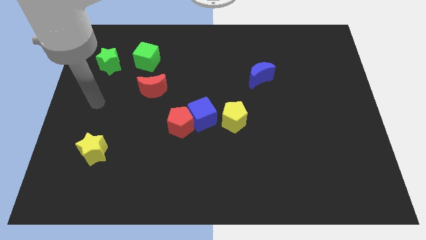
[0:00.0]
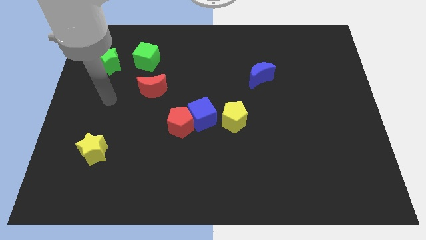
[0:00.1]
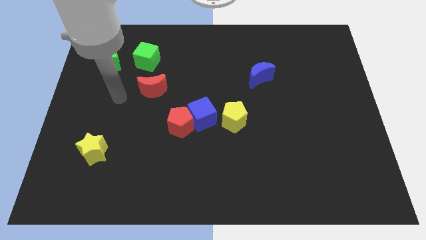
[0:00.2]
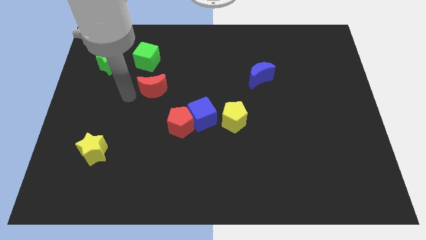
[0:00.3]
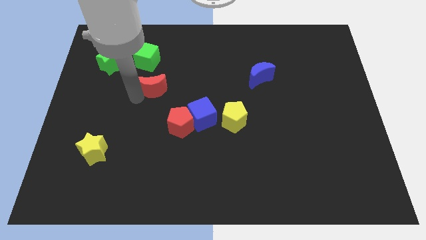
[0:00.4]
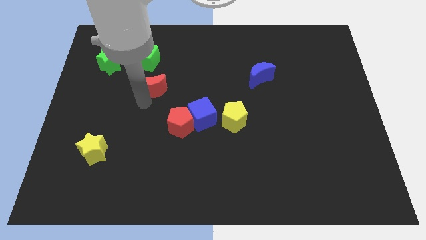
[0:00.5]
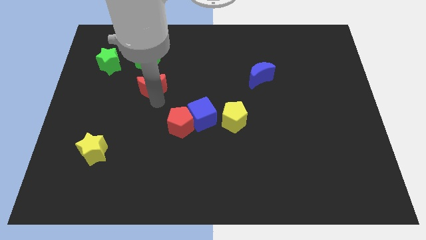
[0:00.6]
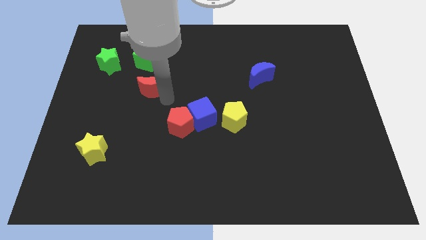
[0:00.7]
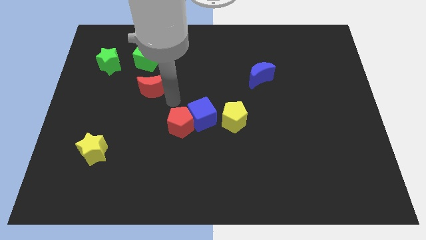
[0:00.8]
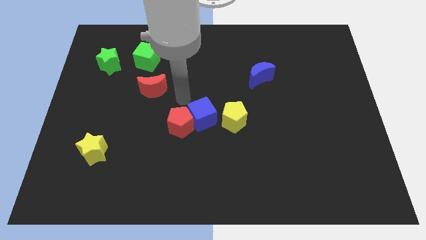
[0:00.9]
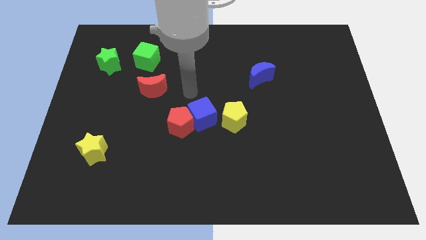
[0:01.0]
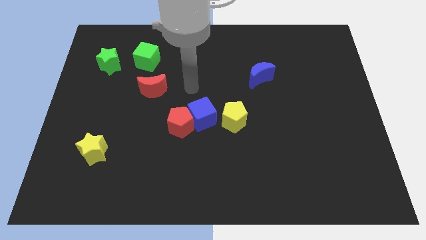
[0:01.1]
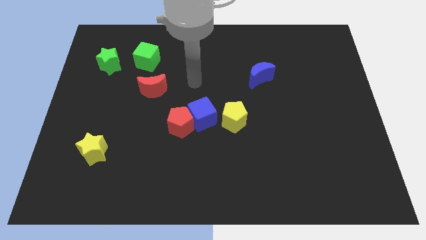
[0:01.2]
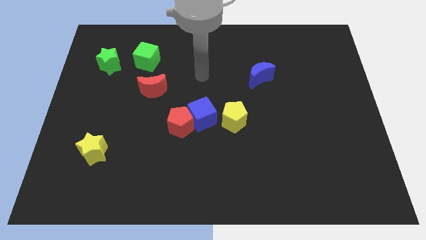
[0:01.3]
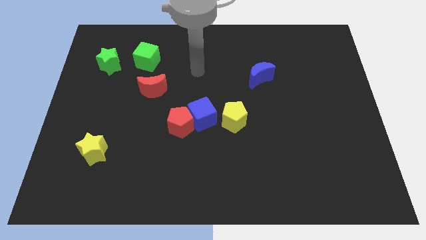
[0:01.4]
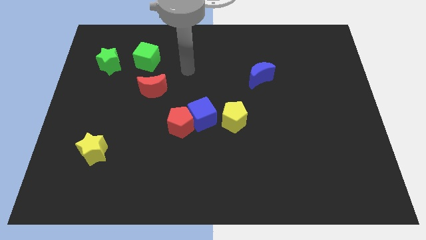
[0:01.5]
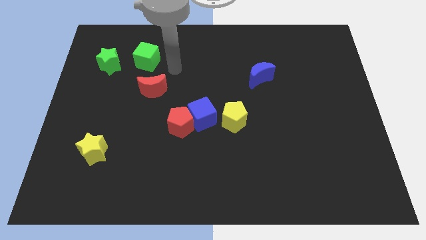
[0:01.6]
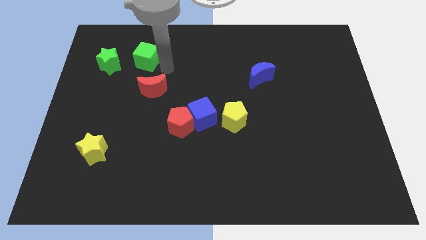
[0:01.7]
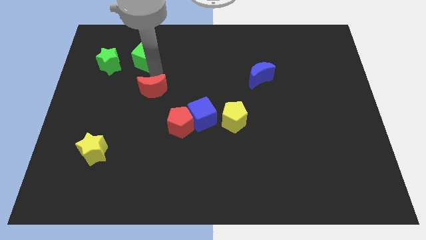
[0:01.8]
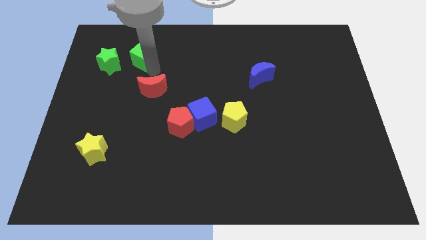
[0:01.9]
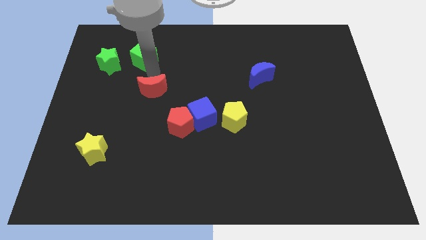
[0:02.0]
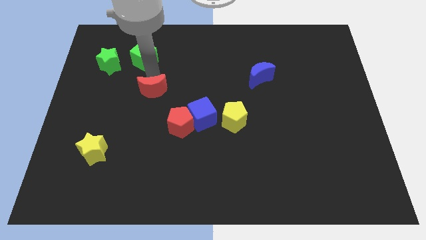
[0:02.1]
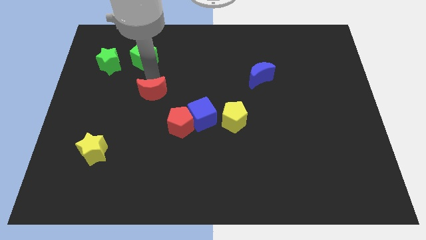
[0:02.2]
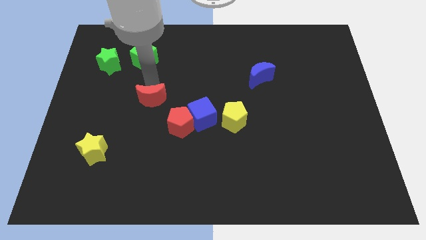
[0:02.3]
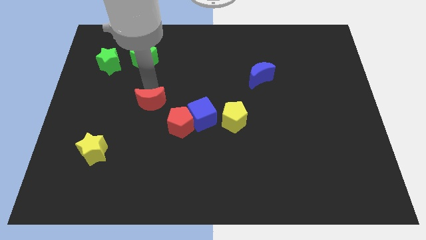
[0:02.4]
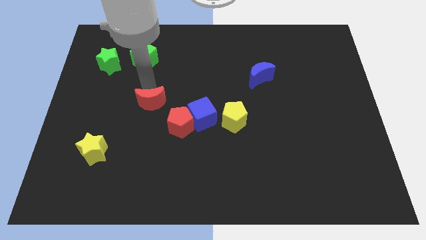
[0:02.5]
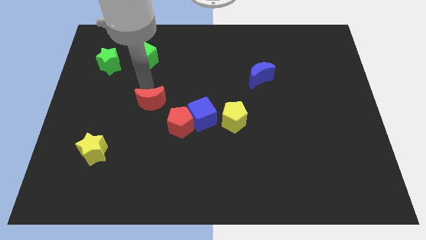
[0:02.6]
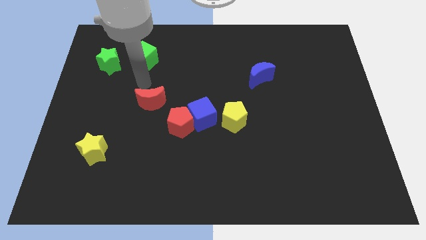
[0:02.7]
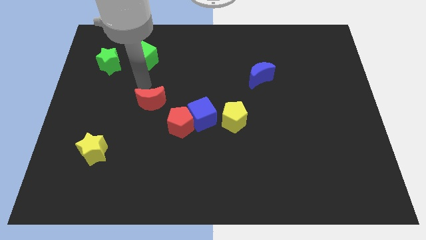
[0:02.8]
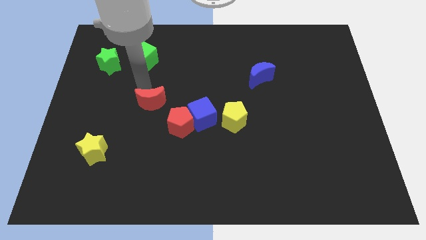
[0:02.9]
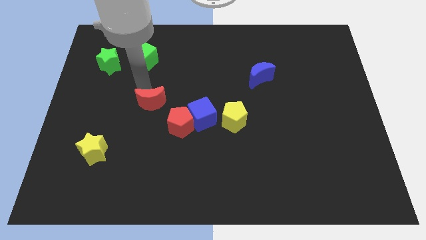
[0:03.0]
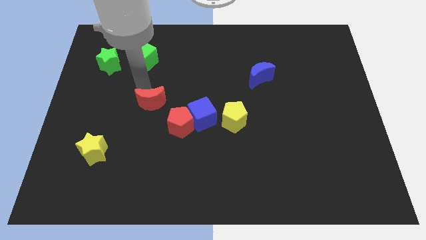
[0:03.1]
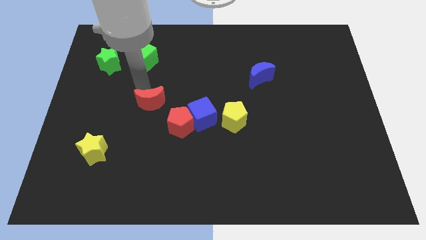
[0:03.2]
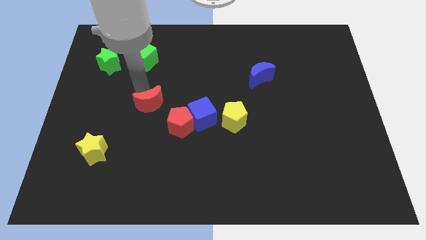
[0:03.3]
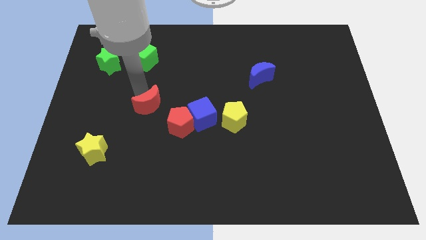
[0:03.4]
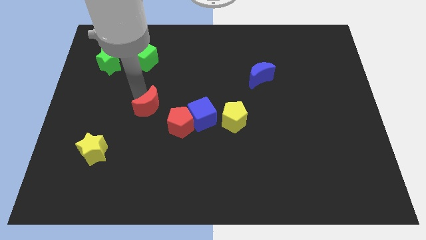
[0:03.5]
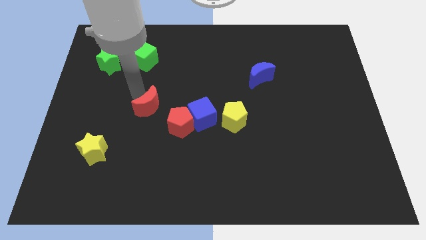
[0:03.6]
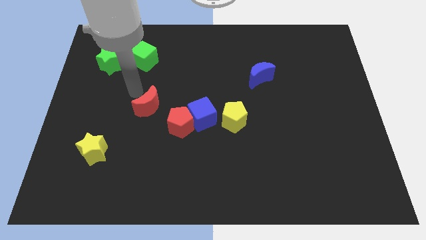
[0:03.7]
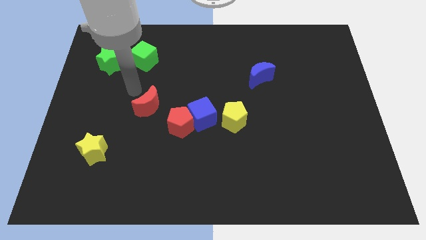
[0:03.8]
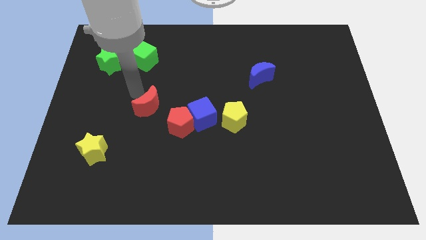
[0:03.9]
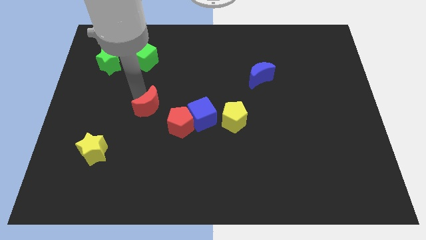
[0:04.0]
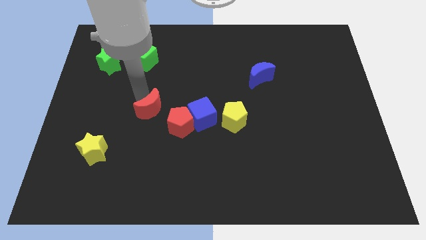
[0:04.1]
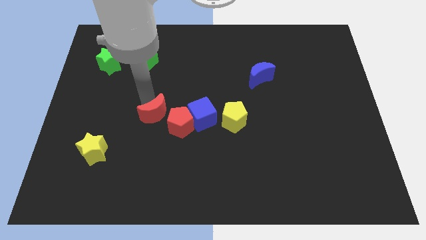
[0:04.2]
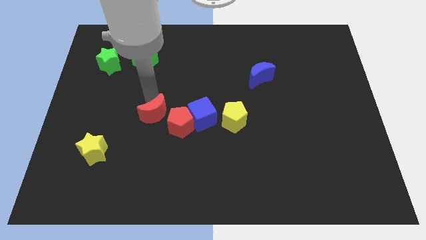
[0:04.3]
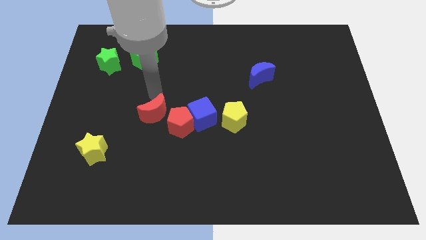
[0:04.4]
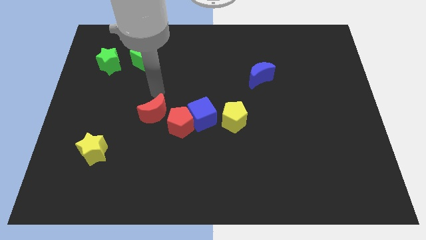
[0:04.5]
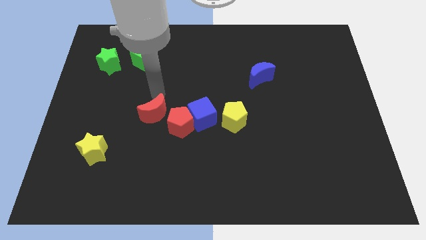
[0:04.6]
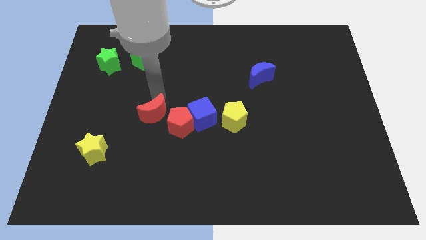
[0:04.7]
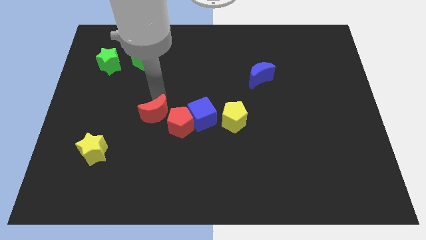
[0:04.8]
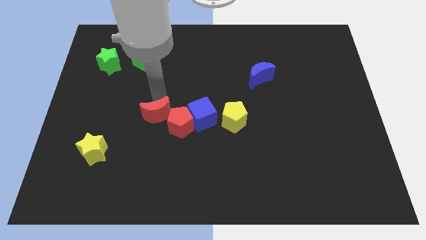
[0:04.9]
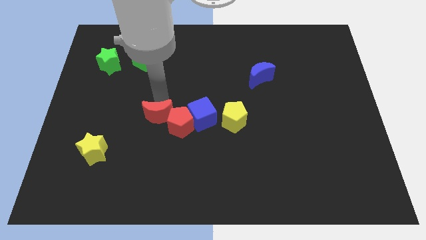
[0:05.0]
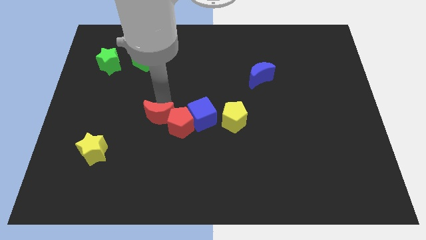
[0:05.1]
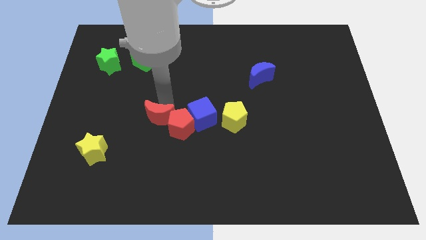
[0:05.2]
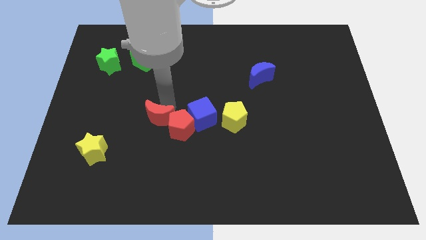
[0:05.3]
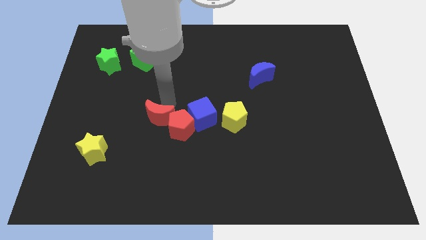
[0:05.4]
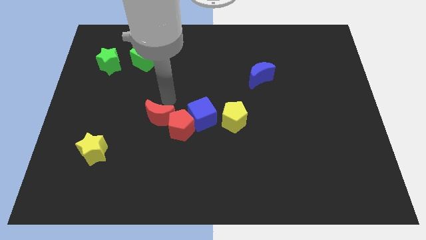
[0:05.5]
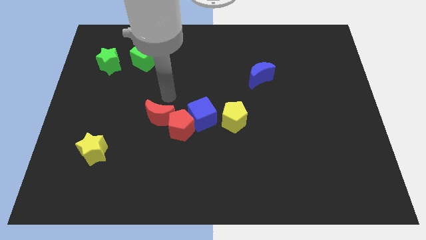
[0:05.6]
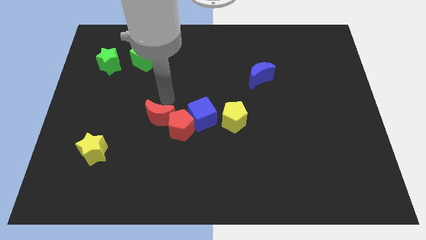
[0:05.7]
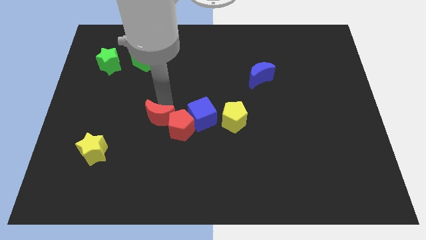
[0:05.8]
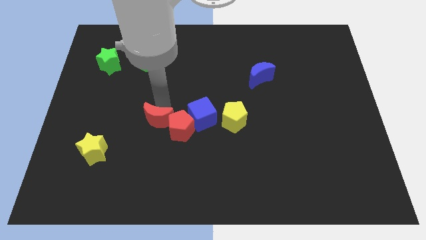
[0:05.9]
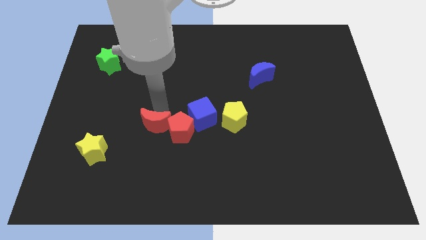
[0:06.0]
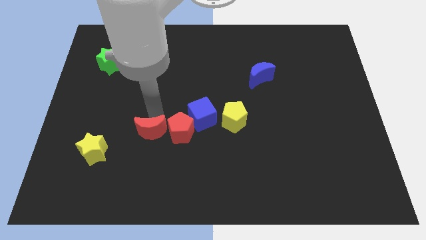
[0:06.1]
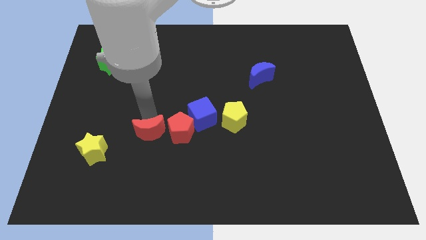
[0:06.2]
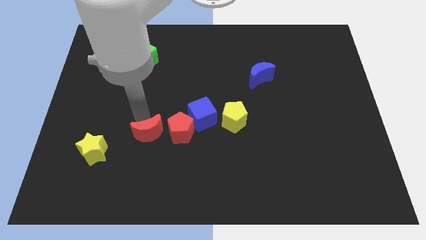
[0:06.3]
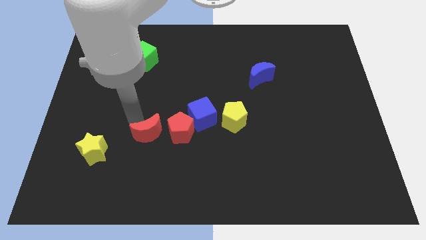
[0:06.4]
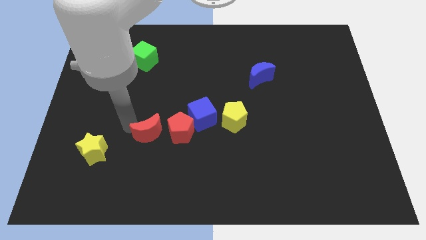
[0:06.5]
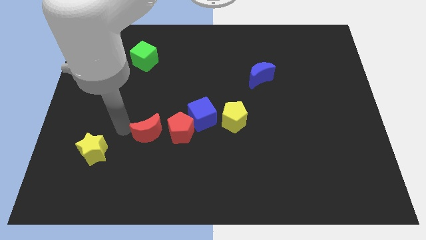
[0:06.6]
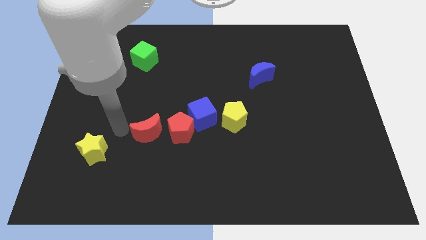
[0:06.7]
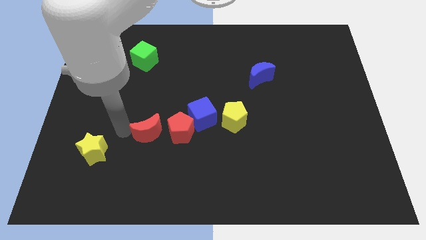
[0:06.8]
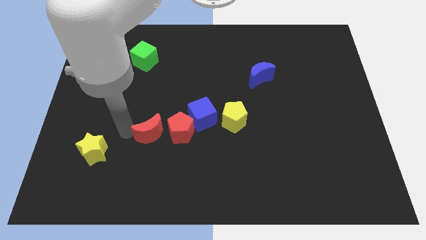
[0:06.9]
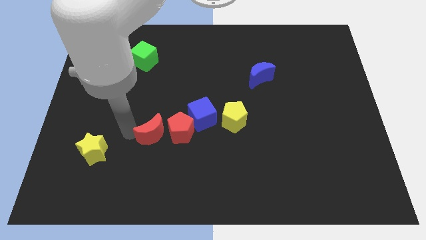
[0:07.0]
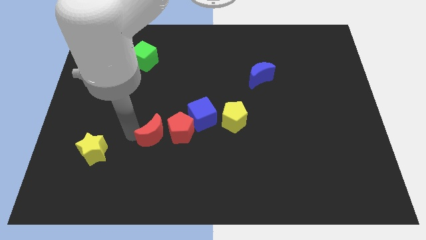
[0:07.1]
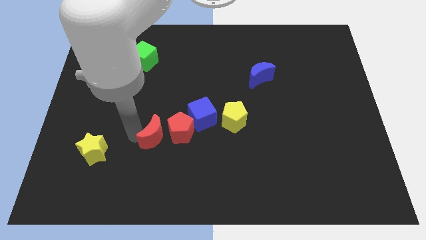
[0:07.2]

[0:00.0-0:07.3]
push the red moon diagonally down and to the left of the blue cube
